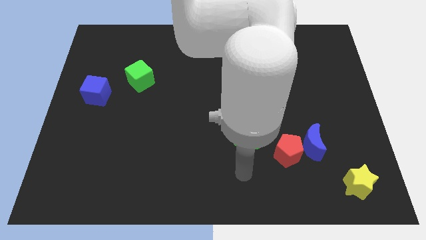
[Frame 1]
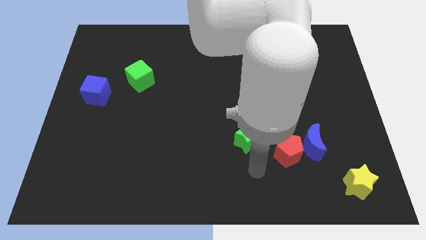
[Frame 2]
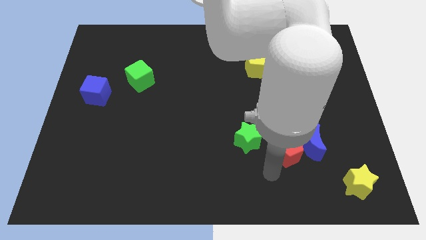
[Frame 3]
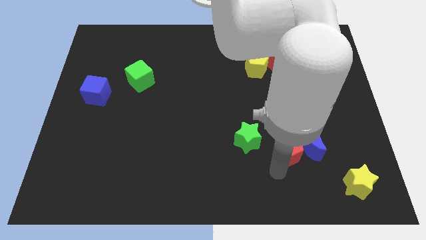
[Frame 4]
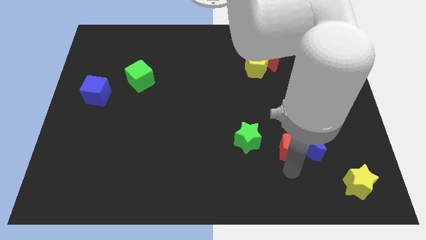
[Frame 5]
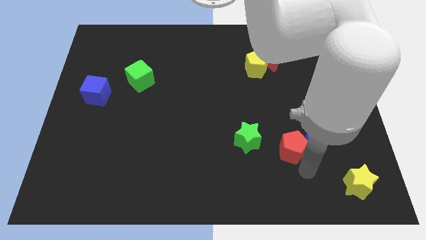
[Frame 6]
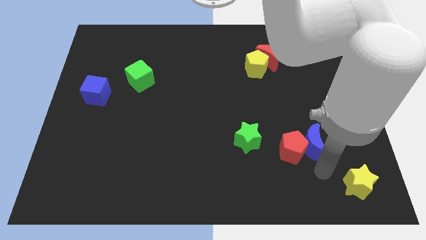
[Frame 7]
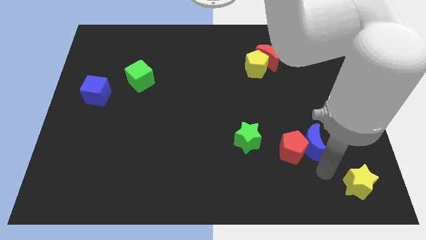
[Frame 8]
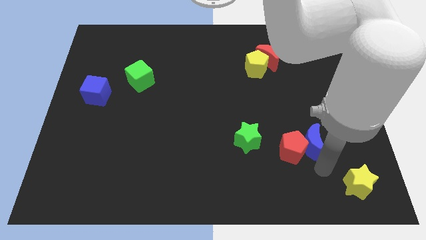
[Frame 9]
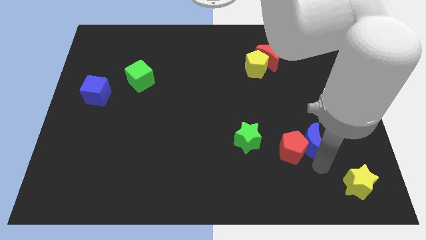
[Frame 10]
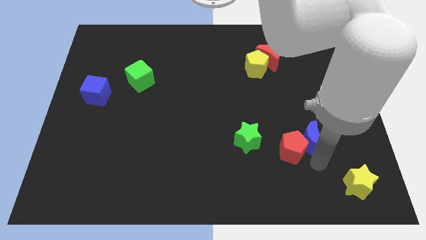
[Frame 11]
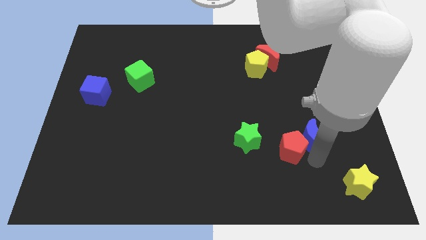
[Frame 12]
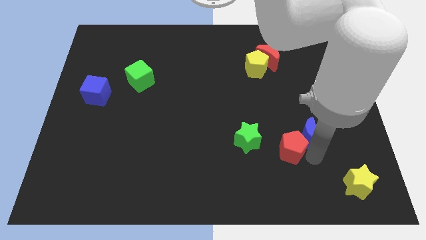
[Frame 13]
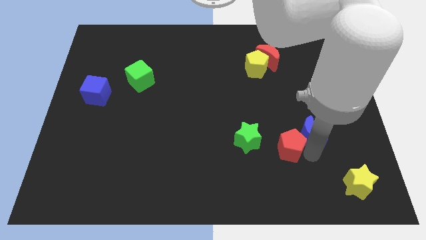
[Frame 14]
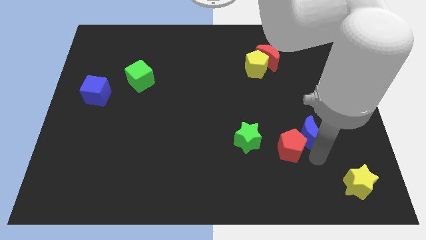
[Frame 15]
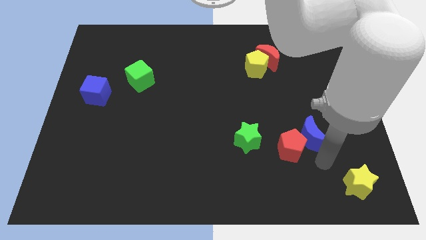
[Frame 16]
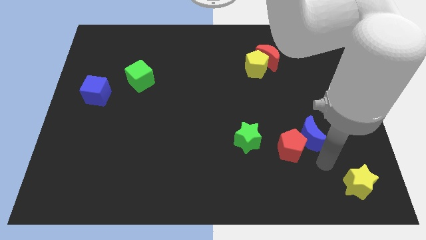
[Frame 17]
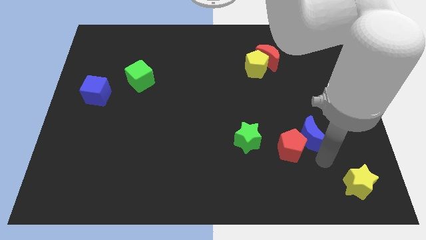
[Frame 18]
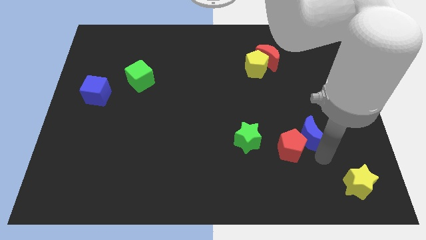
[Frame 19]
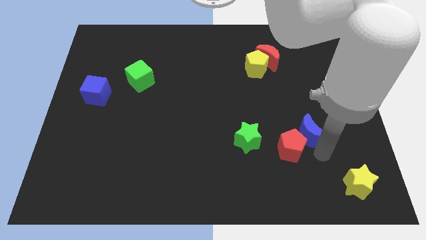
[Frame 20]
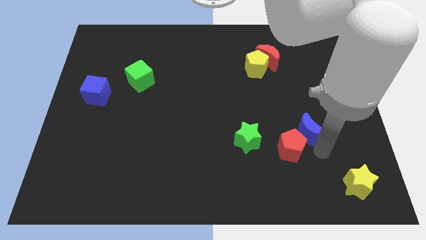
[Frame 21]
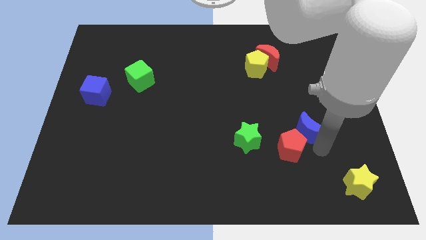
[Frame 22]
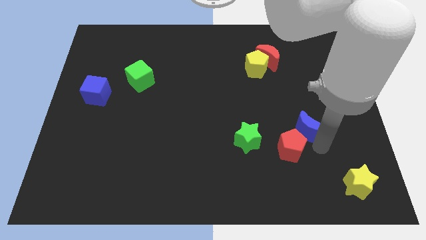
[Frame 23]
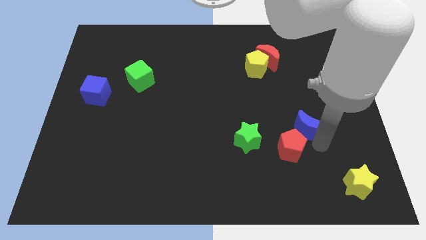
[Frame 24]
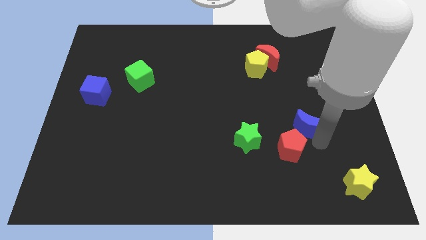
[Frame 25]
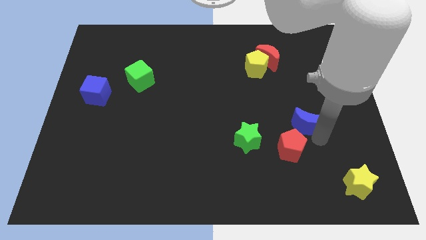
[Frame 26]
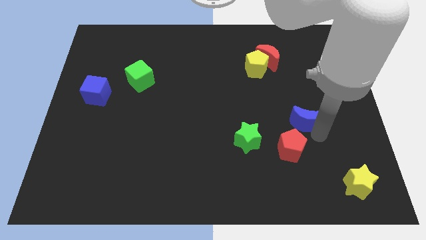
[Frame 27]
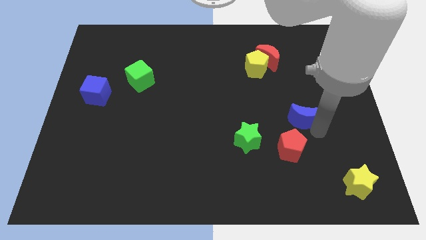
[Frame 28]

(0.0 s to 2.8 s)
slide the blue moon slightly up

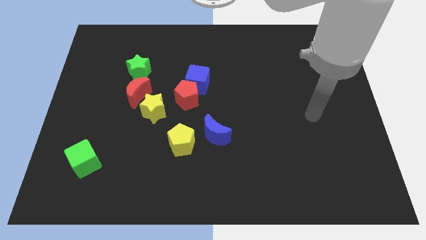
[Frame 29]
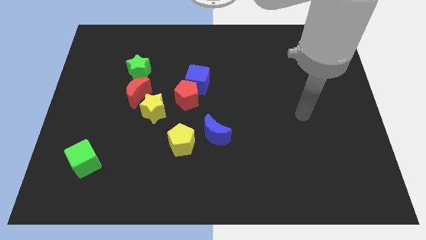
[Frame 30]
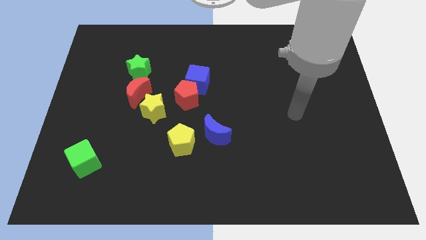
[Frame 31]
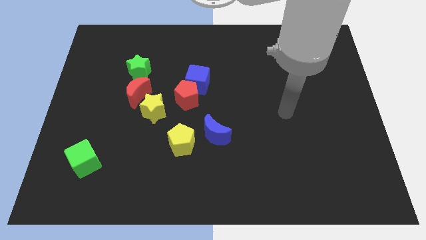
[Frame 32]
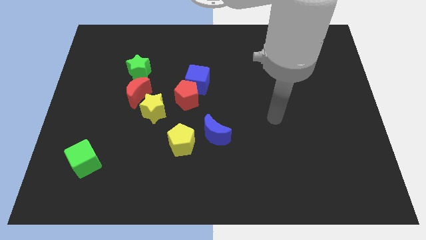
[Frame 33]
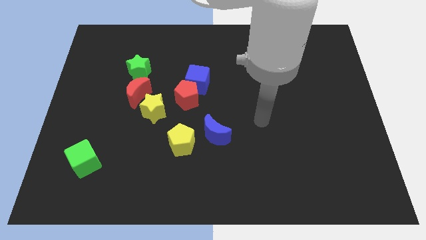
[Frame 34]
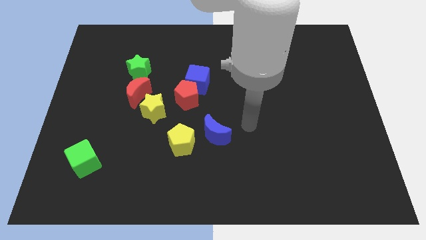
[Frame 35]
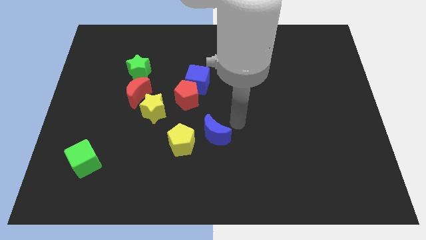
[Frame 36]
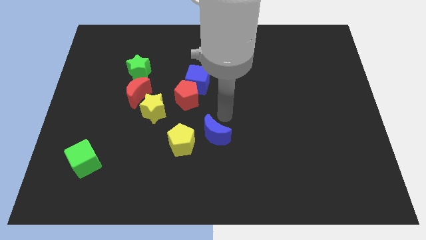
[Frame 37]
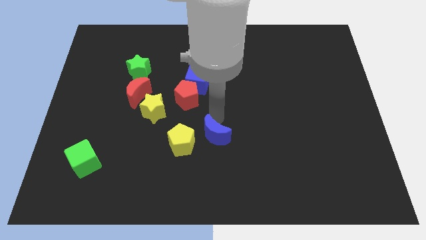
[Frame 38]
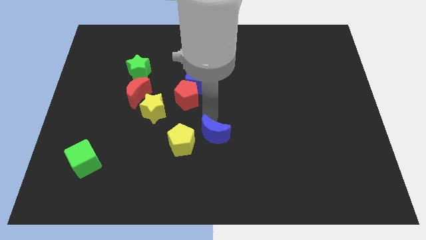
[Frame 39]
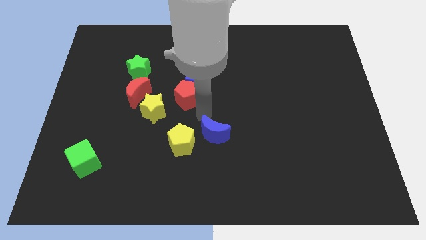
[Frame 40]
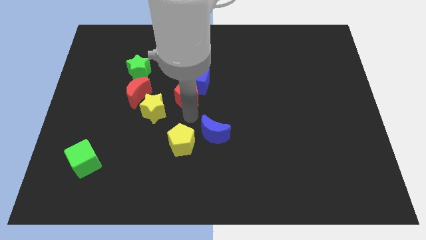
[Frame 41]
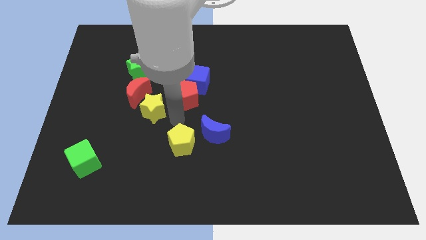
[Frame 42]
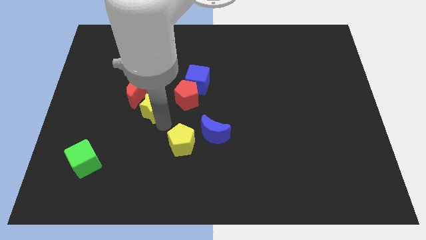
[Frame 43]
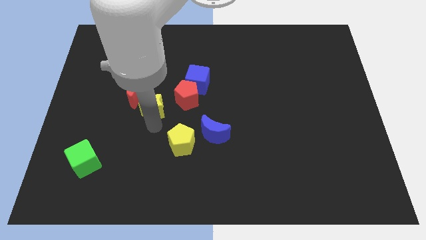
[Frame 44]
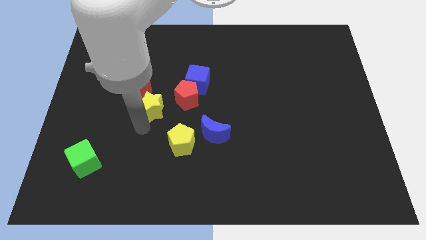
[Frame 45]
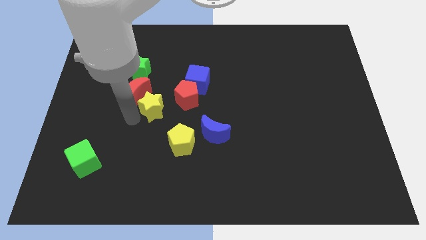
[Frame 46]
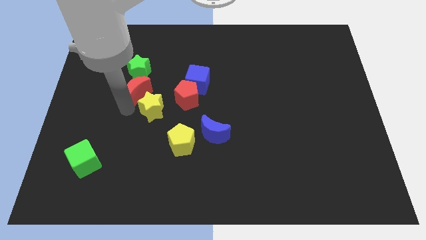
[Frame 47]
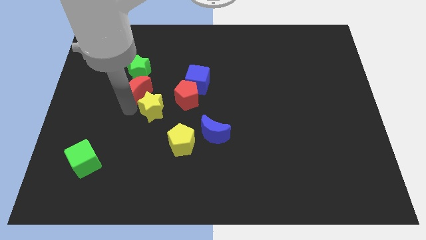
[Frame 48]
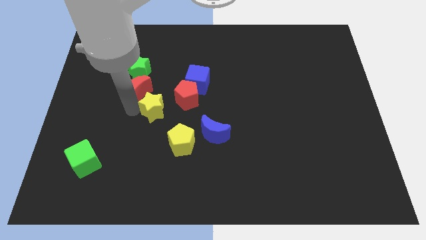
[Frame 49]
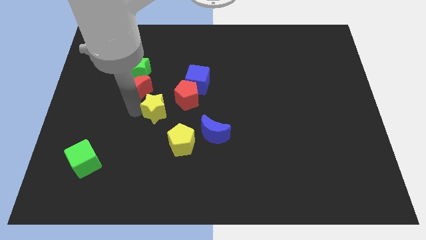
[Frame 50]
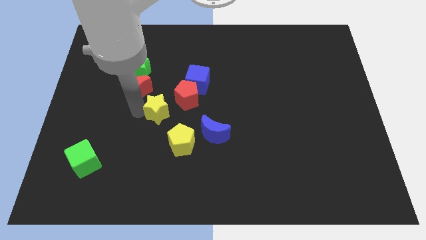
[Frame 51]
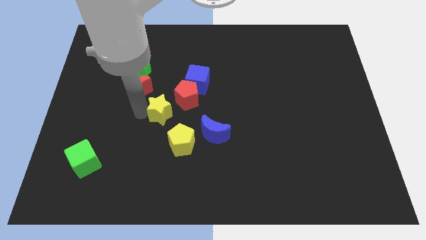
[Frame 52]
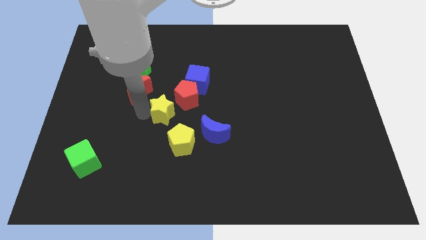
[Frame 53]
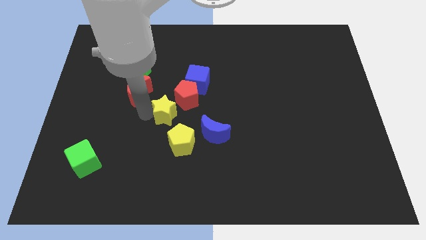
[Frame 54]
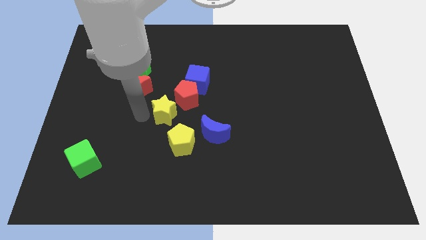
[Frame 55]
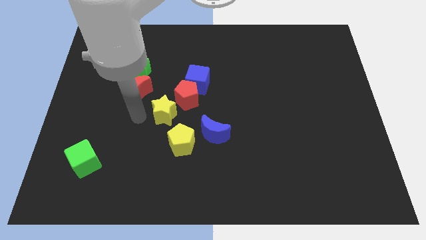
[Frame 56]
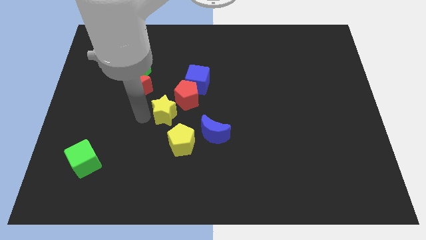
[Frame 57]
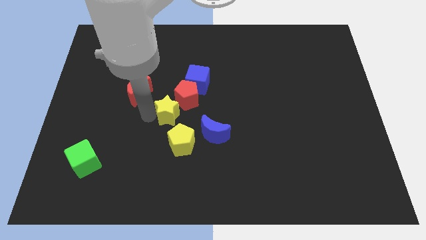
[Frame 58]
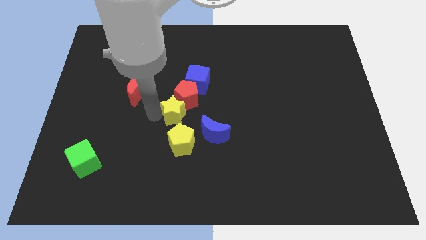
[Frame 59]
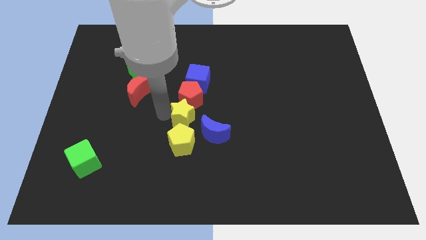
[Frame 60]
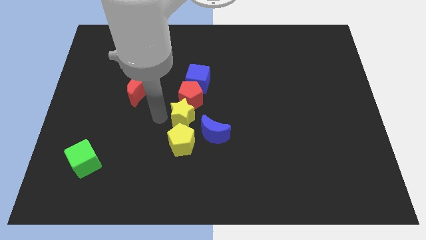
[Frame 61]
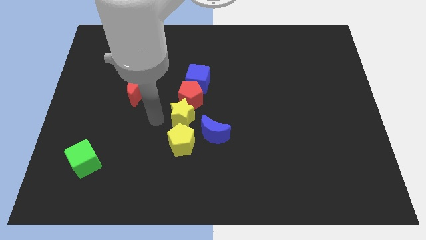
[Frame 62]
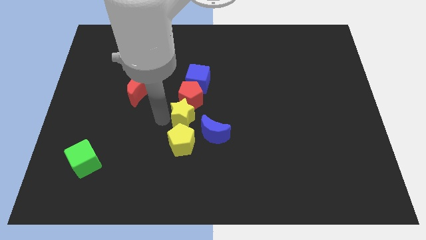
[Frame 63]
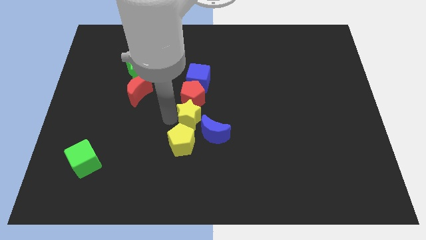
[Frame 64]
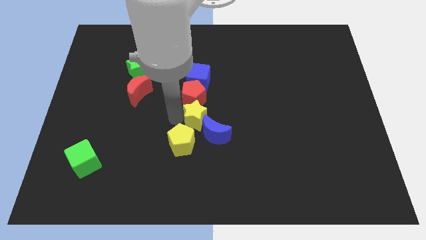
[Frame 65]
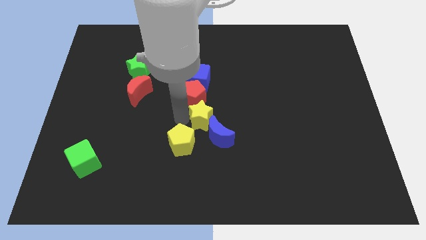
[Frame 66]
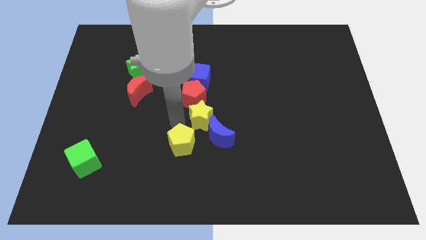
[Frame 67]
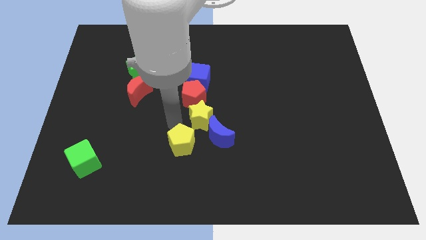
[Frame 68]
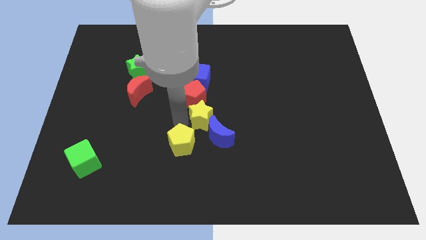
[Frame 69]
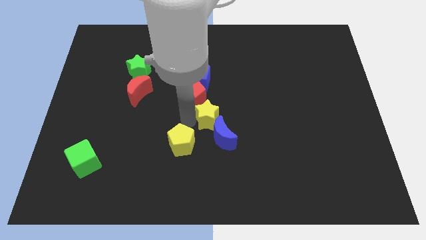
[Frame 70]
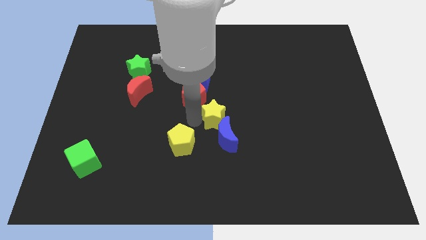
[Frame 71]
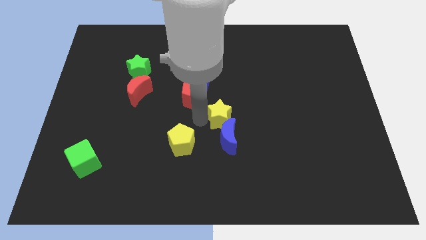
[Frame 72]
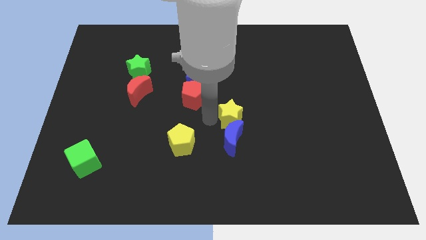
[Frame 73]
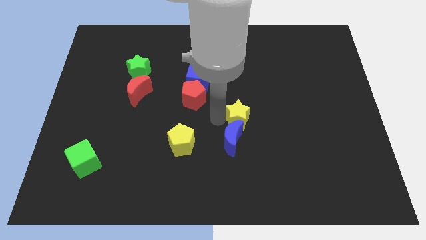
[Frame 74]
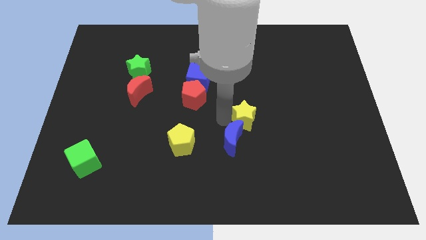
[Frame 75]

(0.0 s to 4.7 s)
push the yellow star right

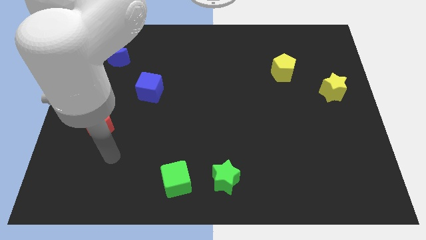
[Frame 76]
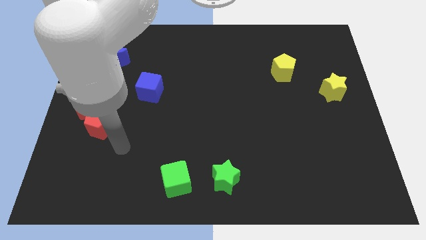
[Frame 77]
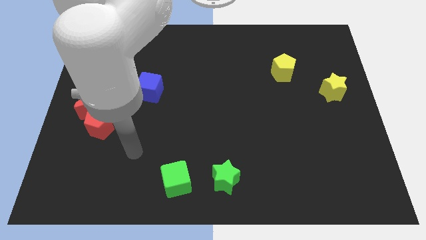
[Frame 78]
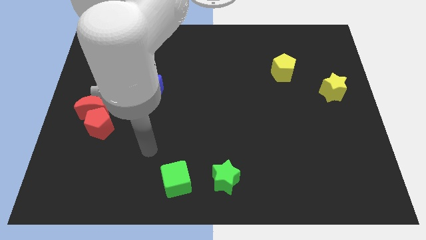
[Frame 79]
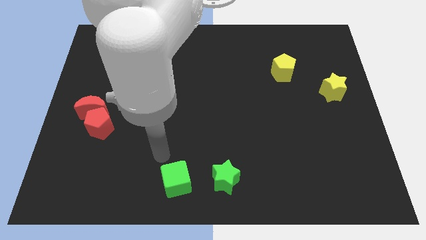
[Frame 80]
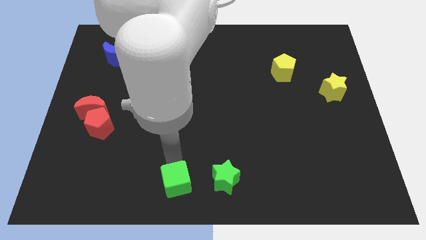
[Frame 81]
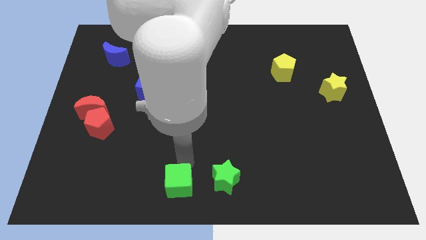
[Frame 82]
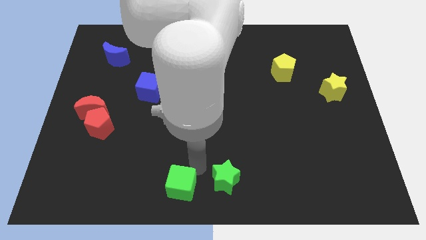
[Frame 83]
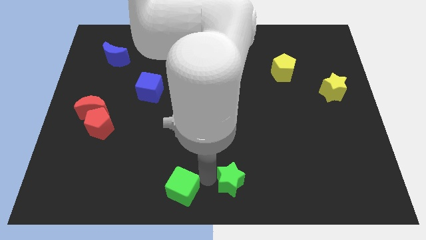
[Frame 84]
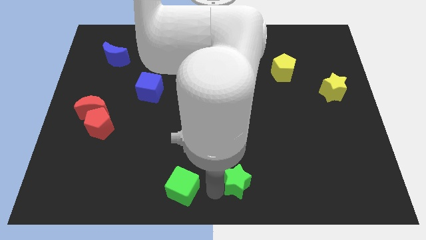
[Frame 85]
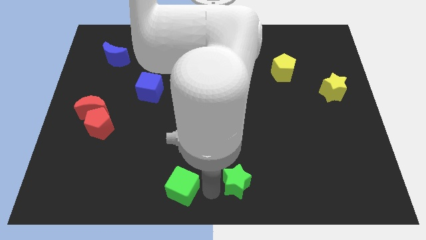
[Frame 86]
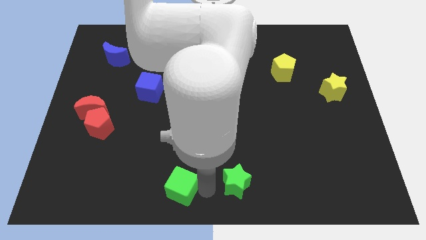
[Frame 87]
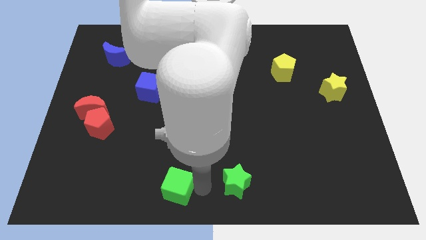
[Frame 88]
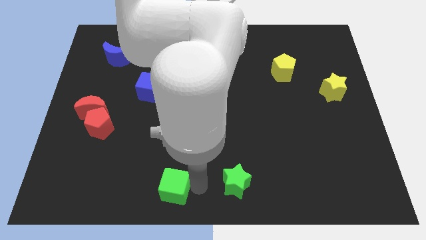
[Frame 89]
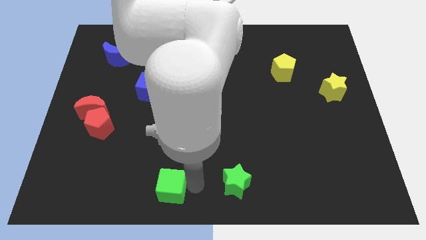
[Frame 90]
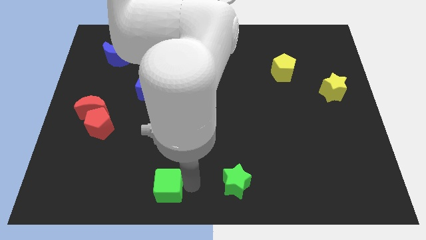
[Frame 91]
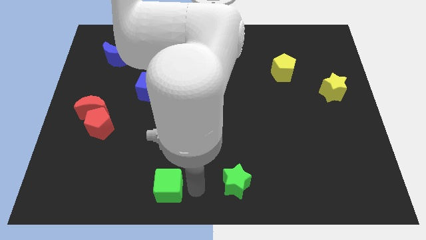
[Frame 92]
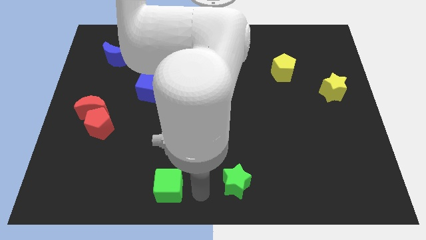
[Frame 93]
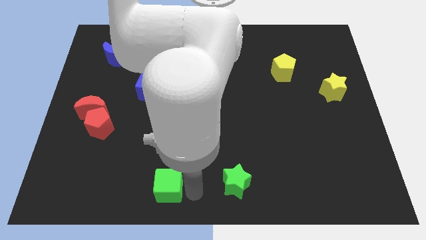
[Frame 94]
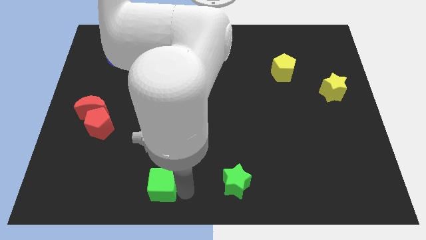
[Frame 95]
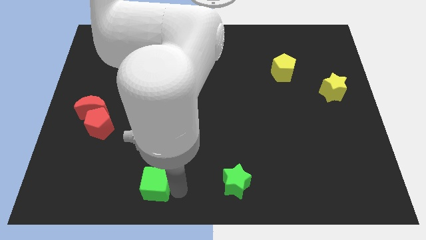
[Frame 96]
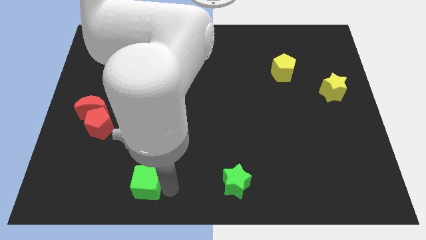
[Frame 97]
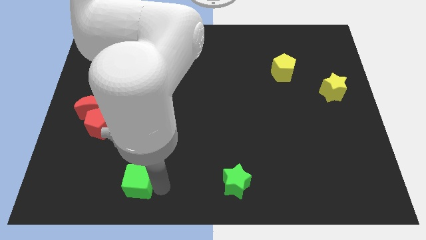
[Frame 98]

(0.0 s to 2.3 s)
push the green cube a little left
